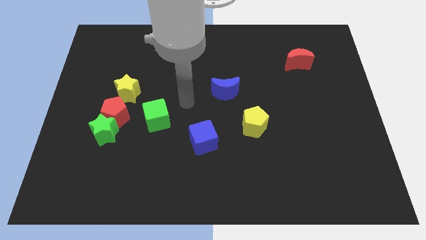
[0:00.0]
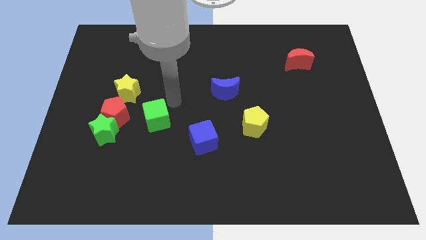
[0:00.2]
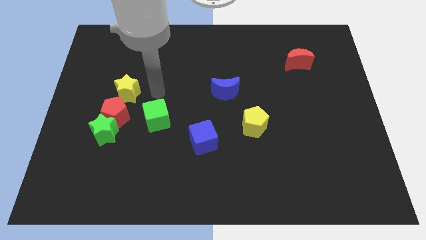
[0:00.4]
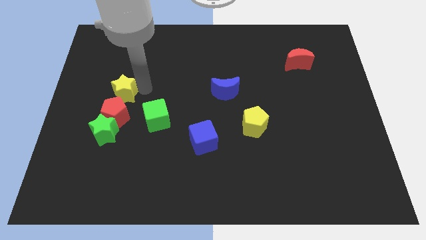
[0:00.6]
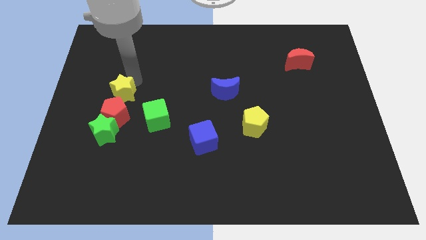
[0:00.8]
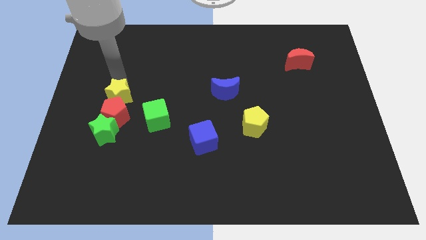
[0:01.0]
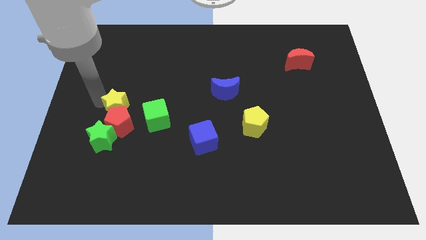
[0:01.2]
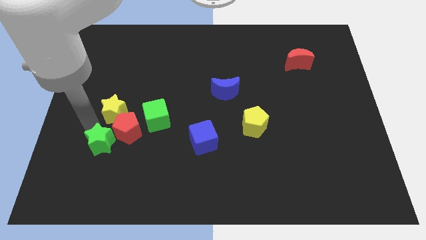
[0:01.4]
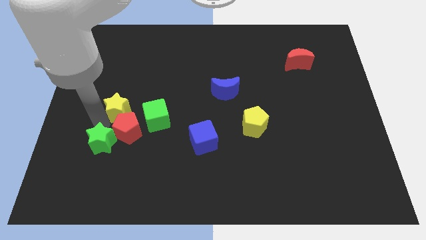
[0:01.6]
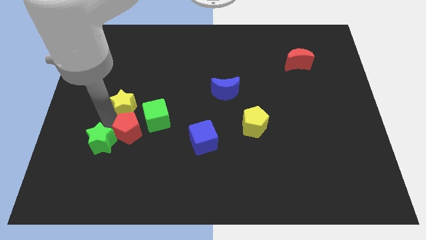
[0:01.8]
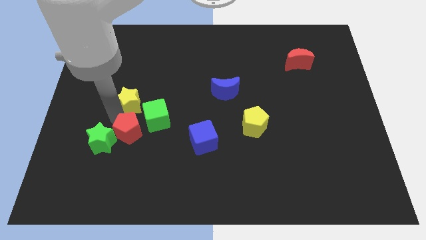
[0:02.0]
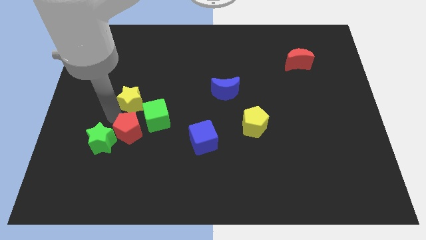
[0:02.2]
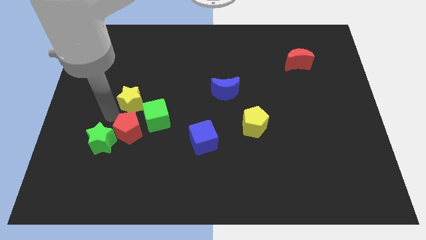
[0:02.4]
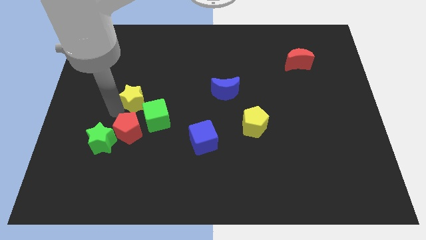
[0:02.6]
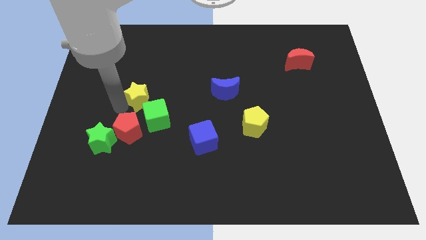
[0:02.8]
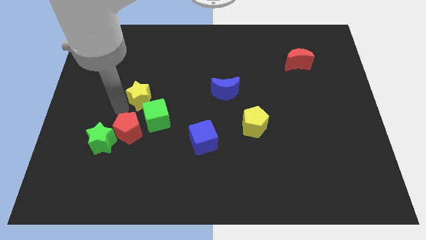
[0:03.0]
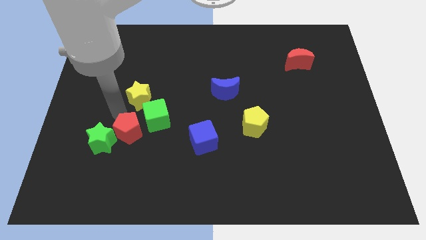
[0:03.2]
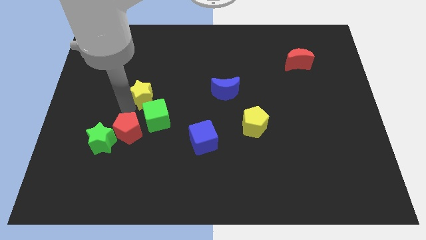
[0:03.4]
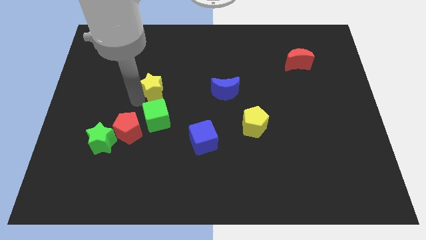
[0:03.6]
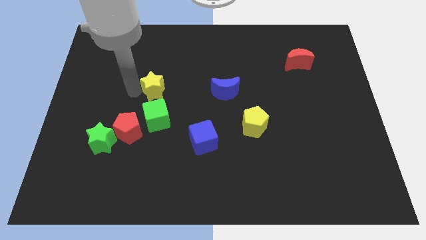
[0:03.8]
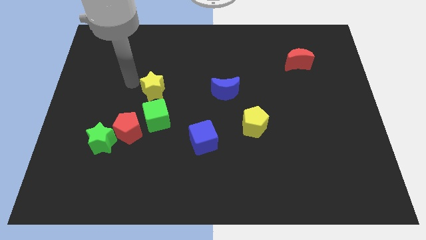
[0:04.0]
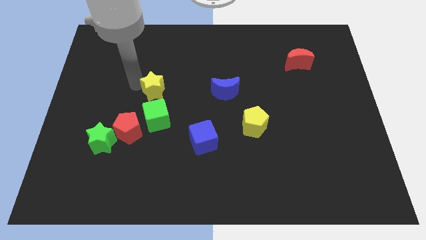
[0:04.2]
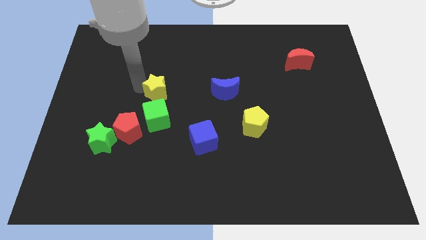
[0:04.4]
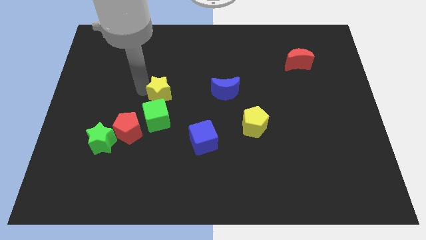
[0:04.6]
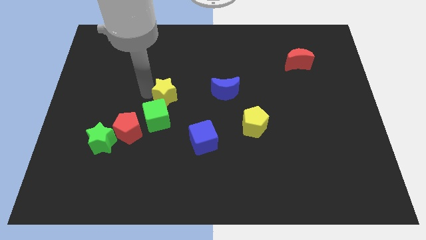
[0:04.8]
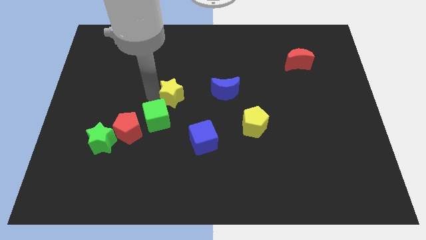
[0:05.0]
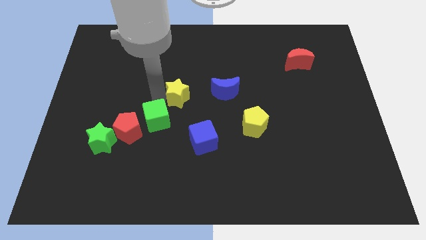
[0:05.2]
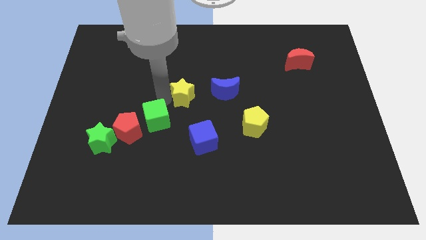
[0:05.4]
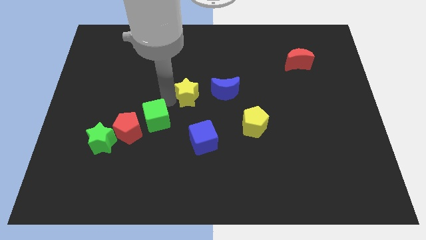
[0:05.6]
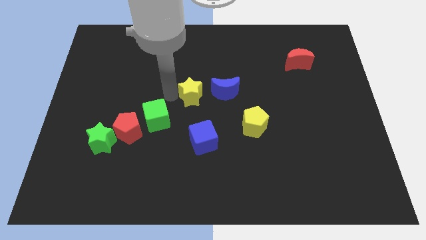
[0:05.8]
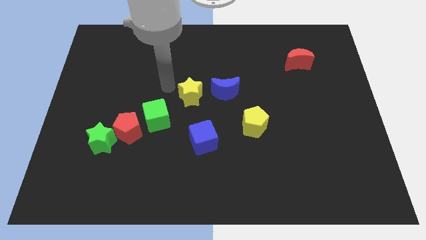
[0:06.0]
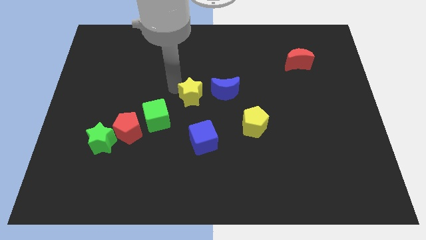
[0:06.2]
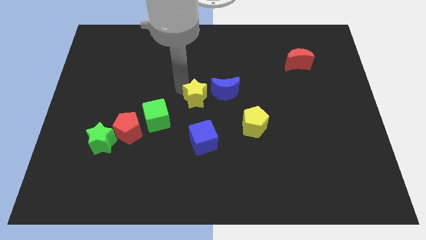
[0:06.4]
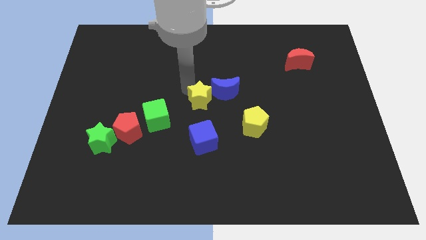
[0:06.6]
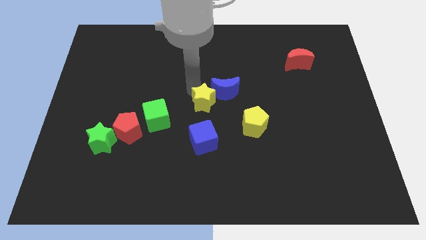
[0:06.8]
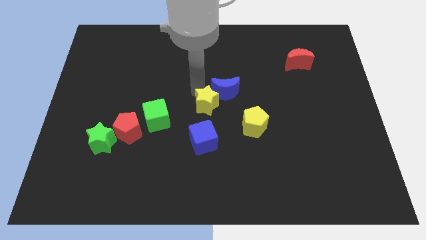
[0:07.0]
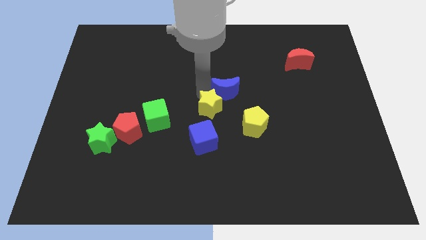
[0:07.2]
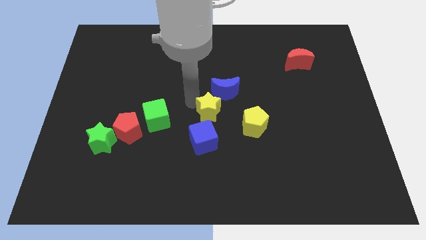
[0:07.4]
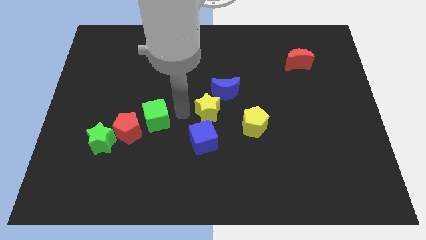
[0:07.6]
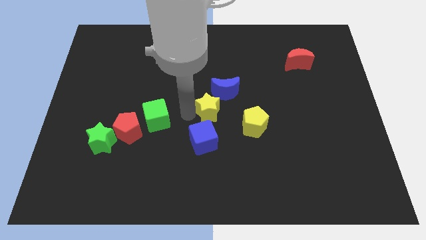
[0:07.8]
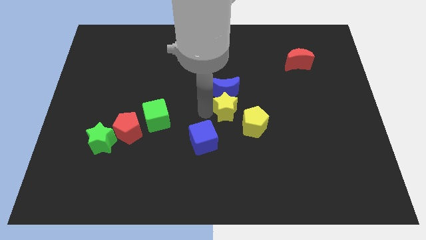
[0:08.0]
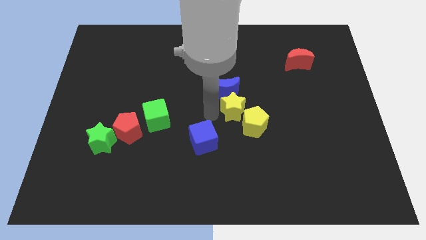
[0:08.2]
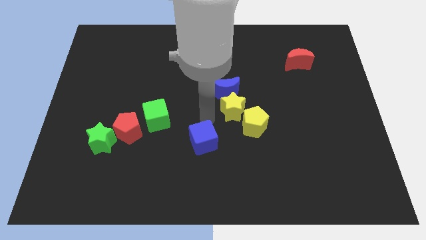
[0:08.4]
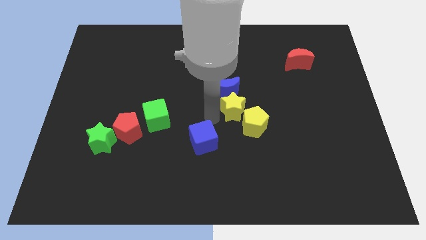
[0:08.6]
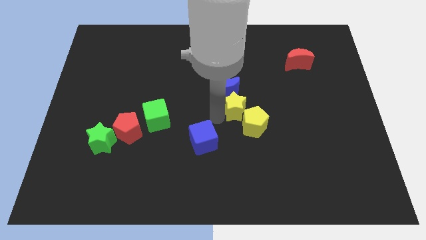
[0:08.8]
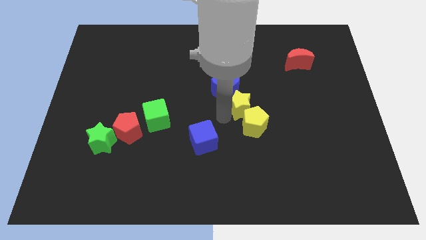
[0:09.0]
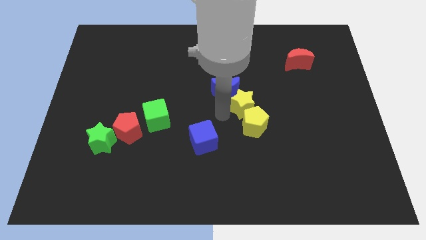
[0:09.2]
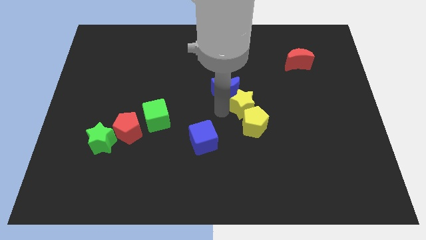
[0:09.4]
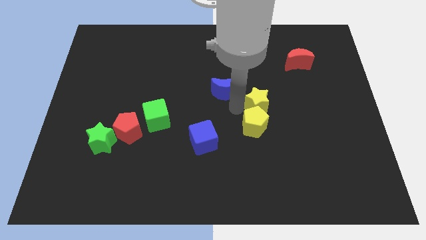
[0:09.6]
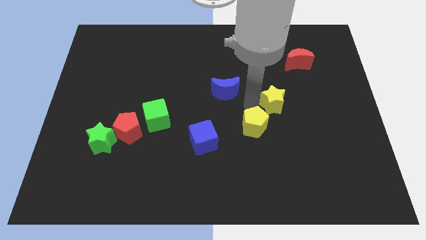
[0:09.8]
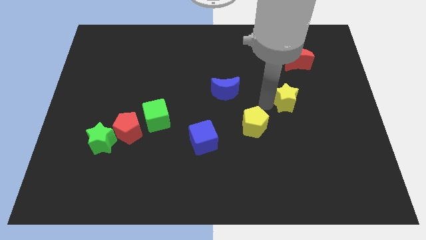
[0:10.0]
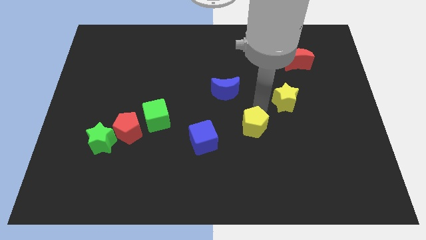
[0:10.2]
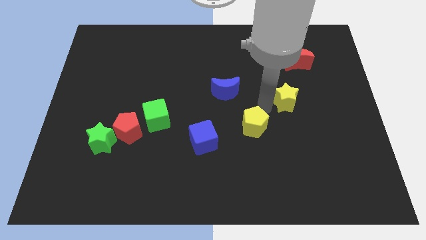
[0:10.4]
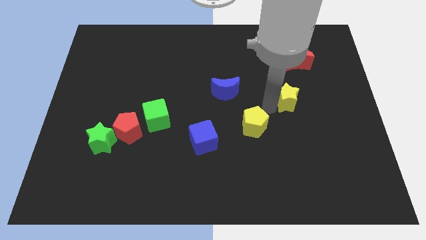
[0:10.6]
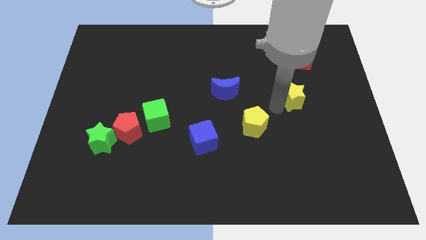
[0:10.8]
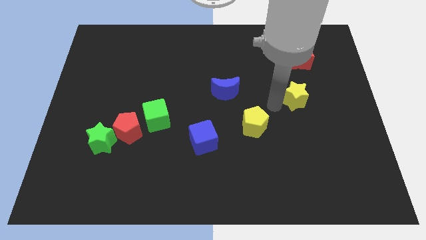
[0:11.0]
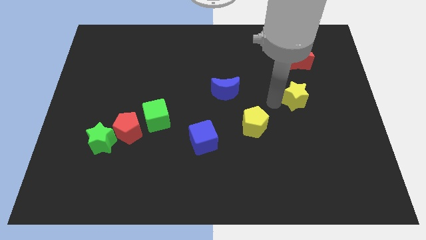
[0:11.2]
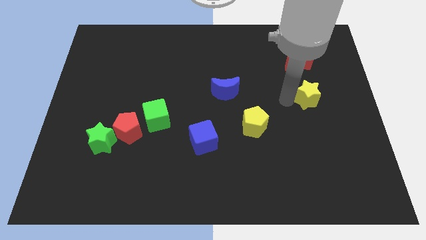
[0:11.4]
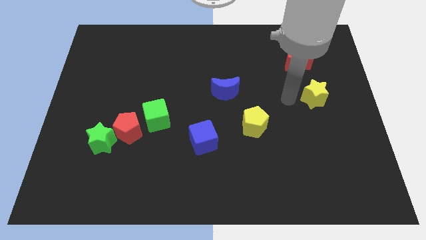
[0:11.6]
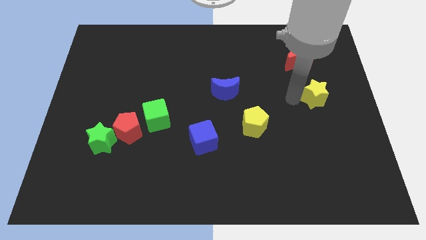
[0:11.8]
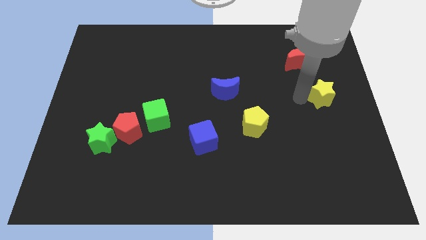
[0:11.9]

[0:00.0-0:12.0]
move the yellow star to the center right

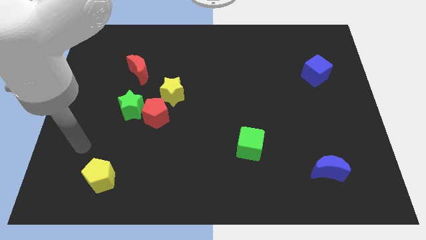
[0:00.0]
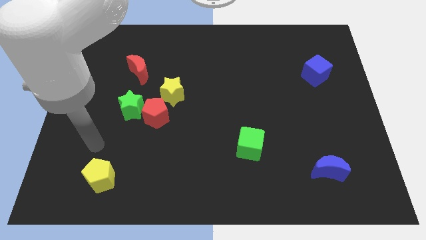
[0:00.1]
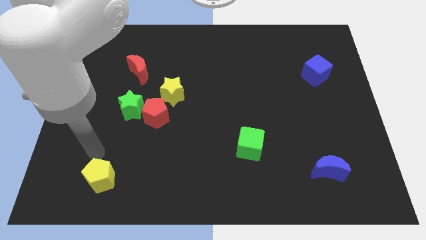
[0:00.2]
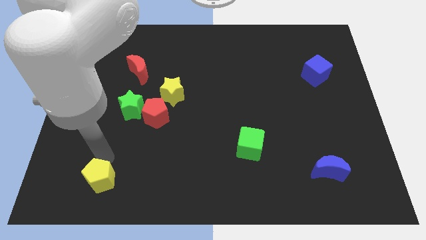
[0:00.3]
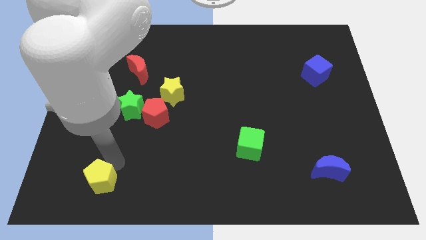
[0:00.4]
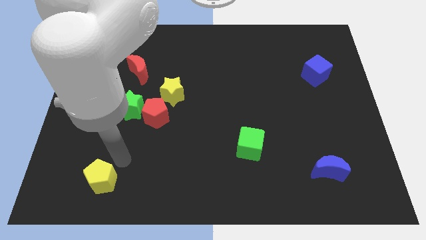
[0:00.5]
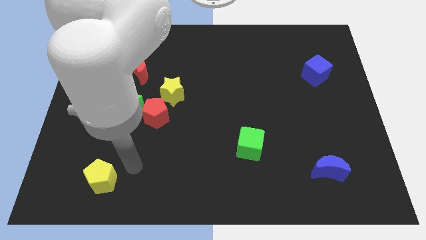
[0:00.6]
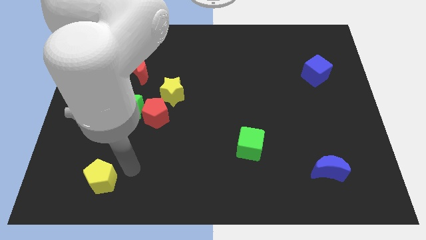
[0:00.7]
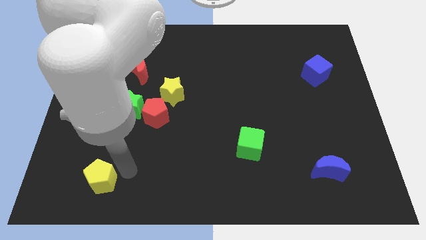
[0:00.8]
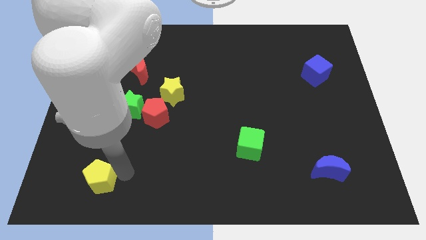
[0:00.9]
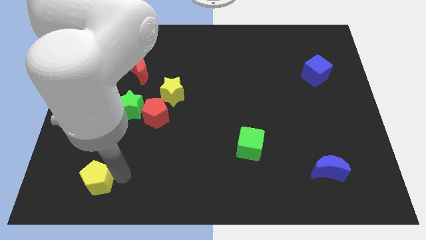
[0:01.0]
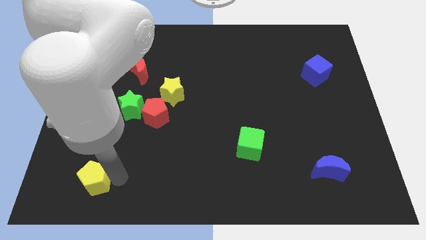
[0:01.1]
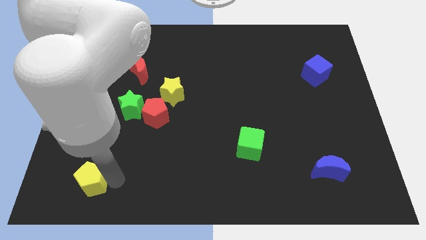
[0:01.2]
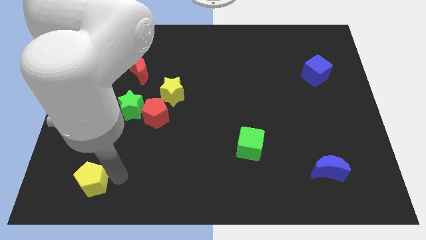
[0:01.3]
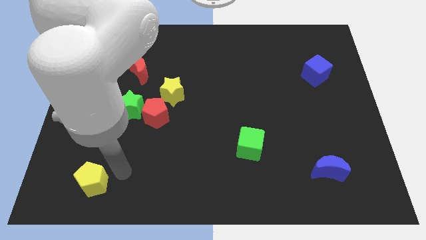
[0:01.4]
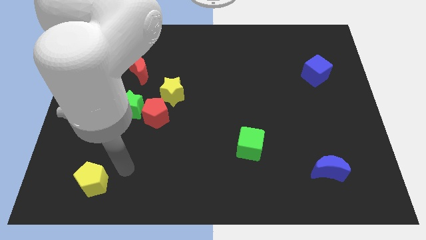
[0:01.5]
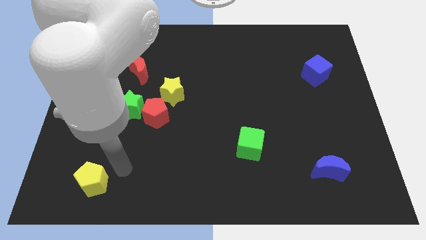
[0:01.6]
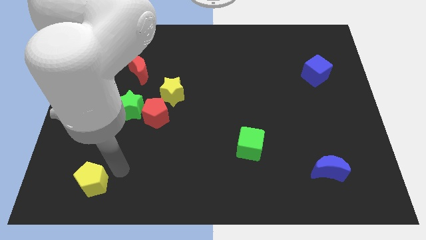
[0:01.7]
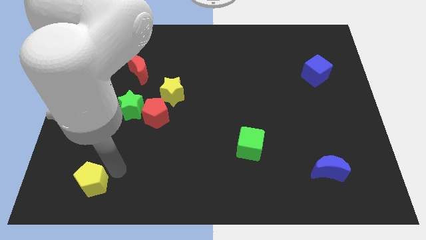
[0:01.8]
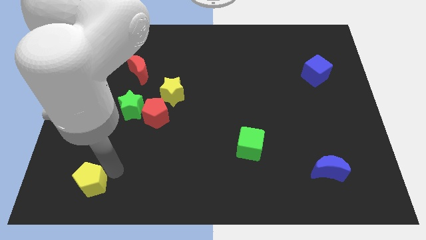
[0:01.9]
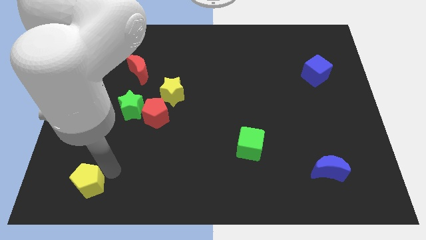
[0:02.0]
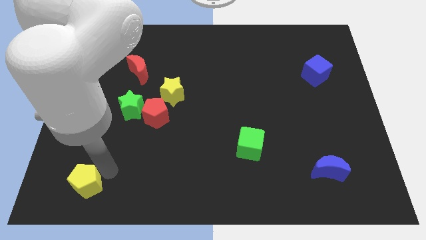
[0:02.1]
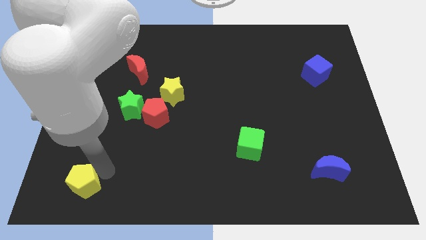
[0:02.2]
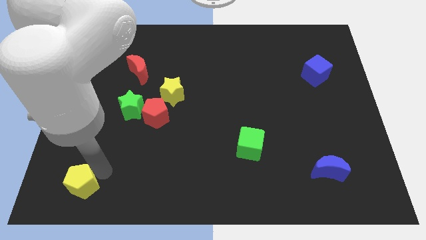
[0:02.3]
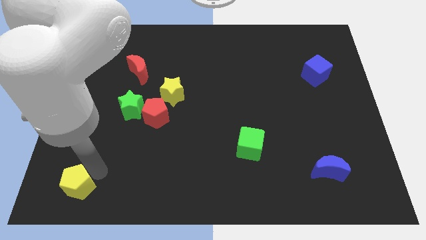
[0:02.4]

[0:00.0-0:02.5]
put the yellow pentagon to the bottom left of the board
